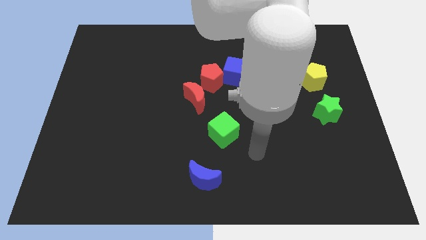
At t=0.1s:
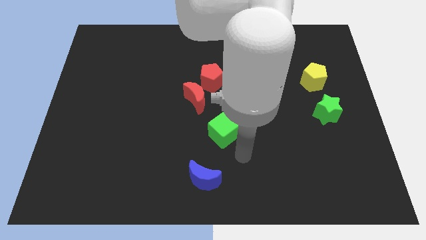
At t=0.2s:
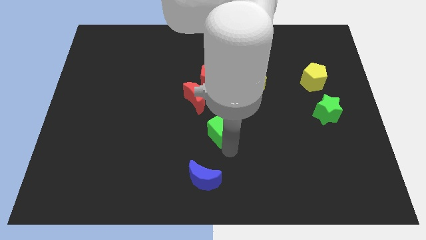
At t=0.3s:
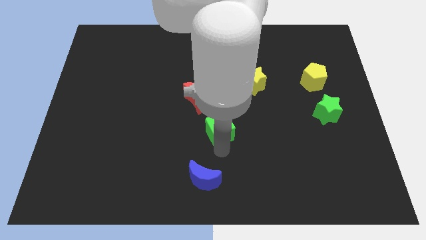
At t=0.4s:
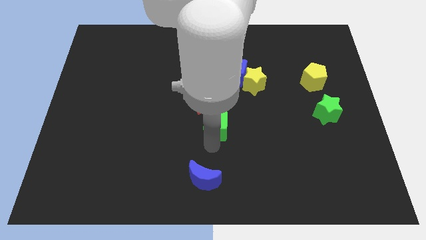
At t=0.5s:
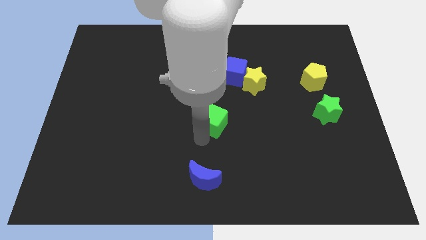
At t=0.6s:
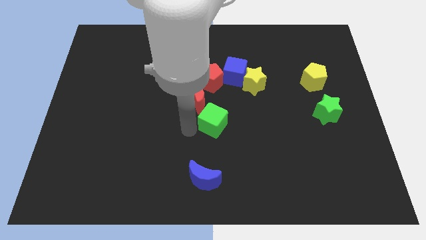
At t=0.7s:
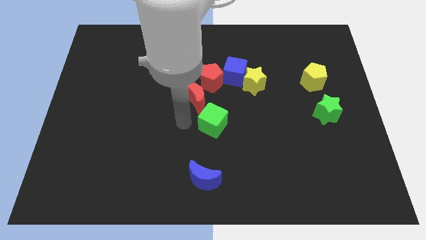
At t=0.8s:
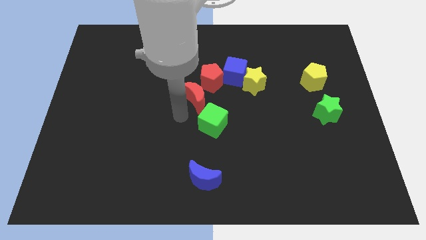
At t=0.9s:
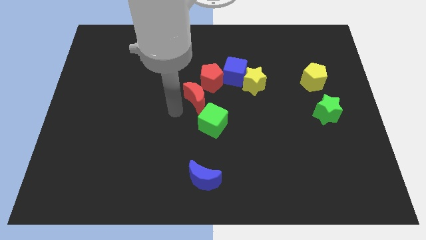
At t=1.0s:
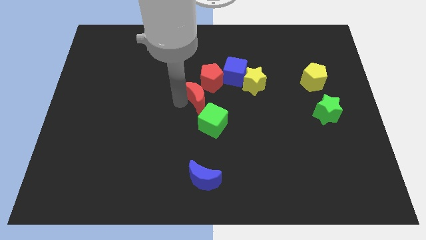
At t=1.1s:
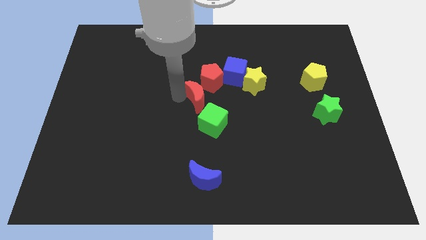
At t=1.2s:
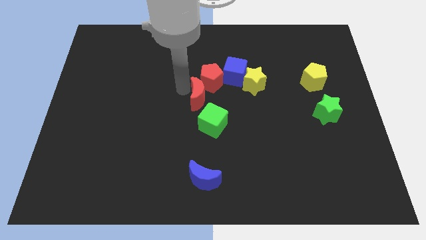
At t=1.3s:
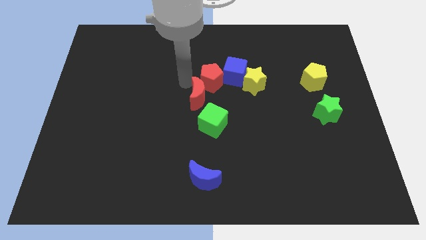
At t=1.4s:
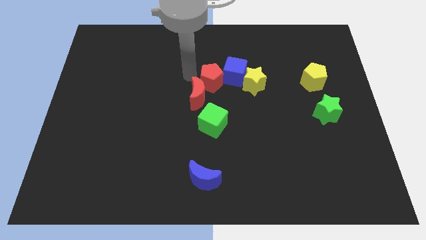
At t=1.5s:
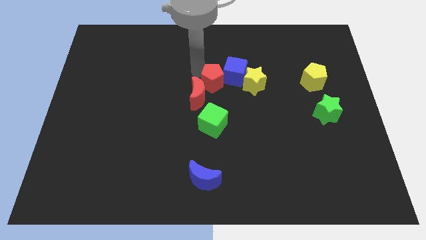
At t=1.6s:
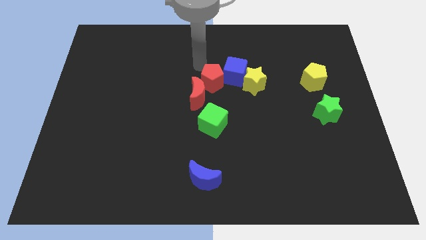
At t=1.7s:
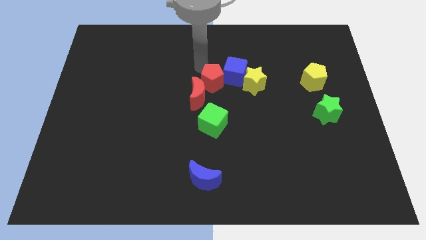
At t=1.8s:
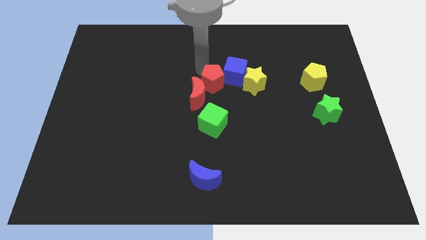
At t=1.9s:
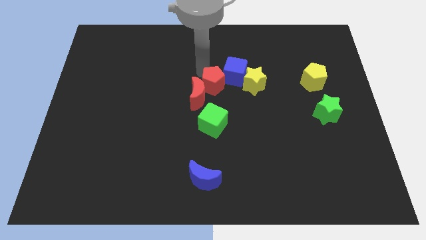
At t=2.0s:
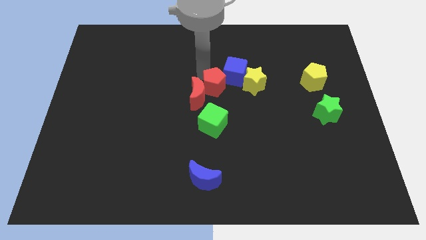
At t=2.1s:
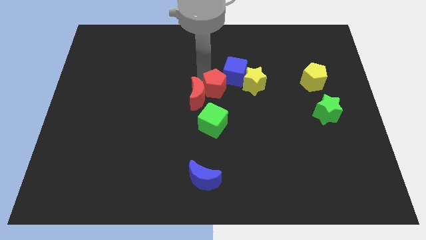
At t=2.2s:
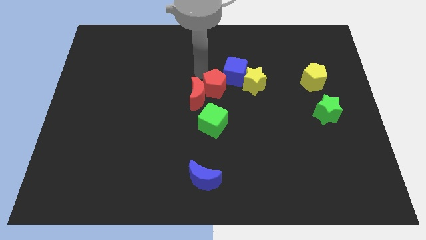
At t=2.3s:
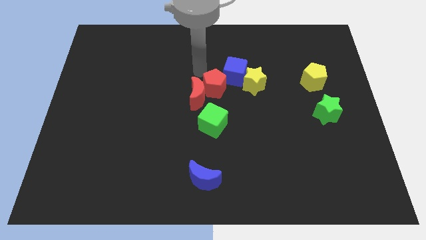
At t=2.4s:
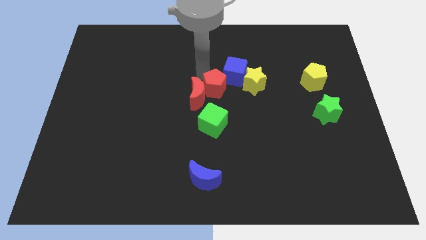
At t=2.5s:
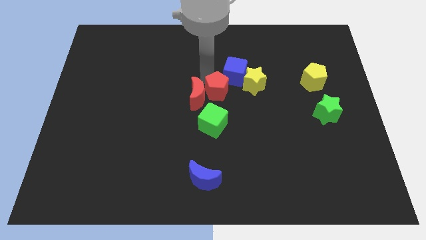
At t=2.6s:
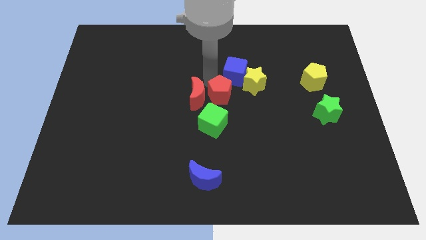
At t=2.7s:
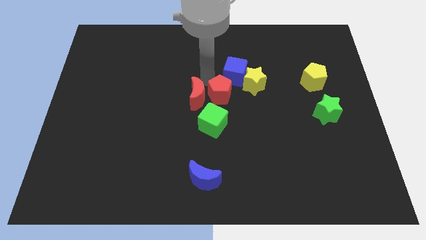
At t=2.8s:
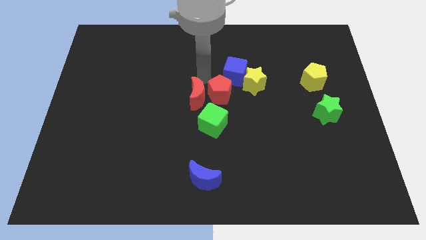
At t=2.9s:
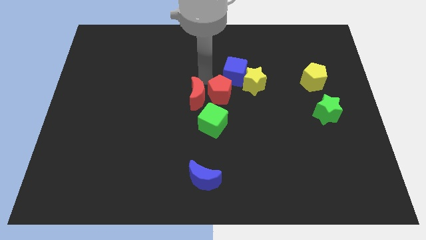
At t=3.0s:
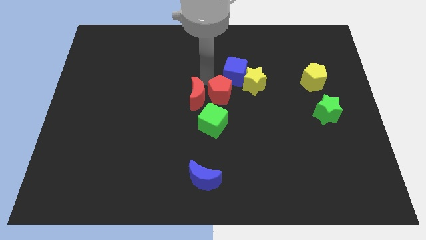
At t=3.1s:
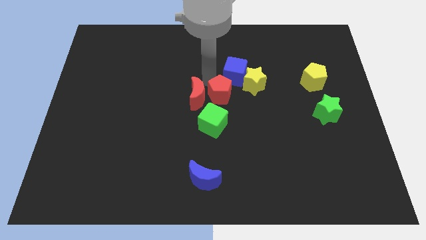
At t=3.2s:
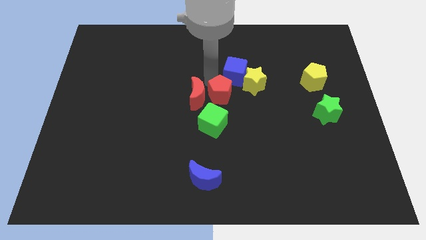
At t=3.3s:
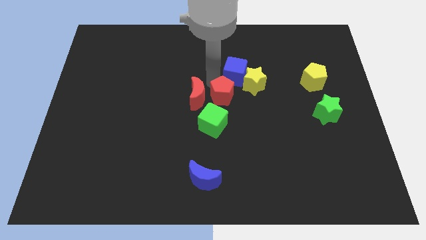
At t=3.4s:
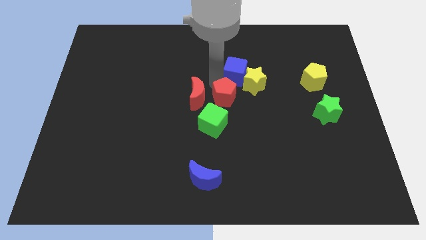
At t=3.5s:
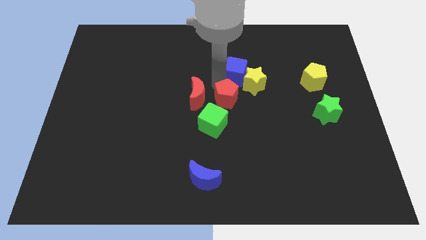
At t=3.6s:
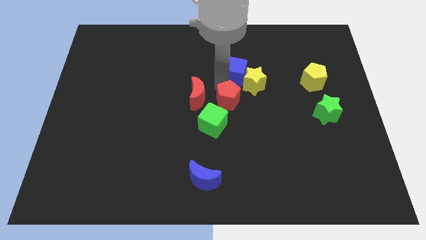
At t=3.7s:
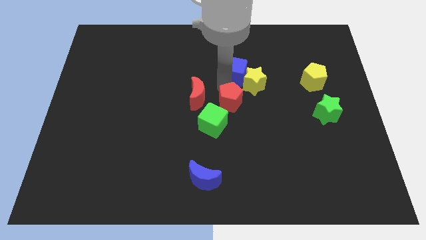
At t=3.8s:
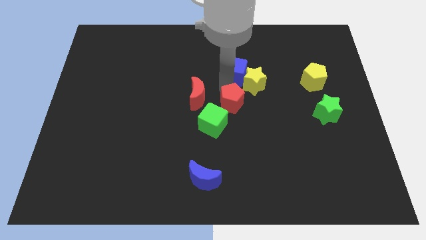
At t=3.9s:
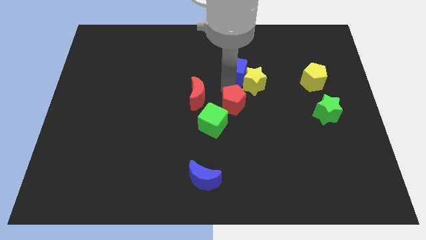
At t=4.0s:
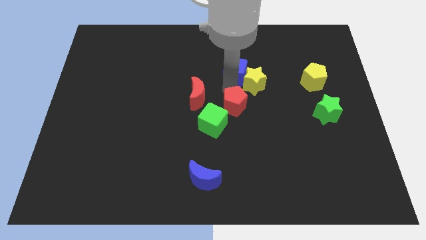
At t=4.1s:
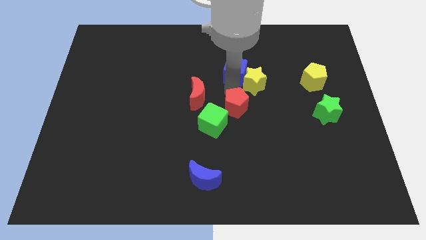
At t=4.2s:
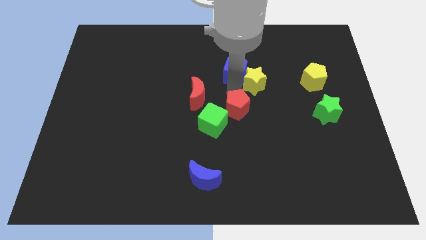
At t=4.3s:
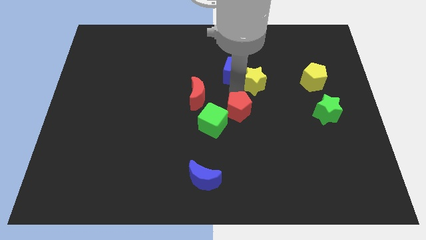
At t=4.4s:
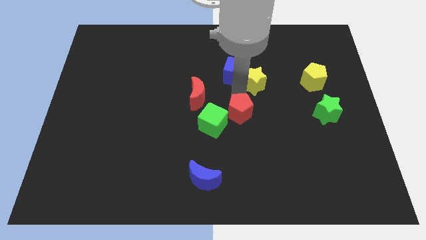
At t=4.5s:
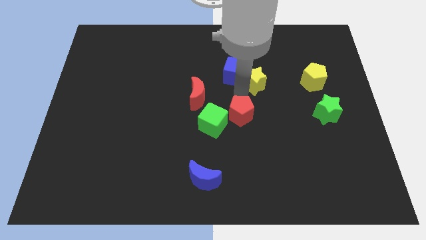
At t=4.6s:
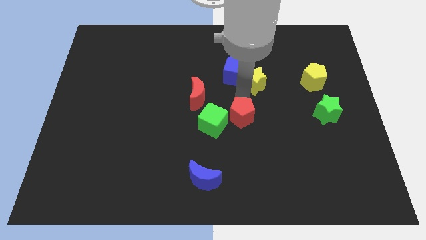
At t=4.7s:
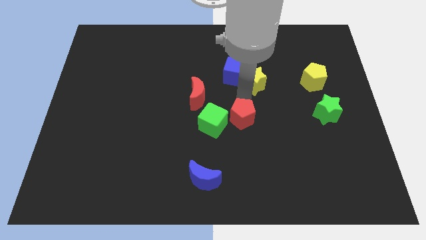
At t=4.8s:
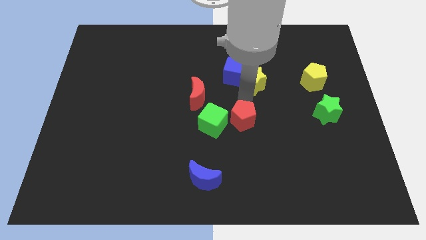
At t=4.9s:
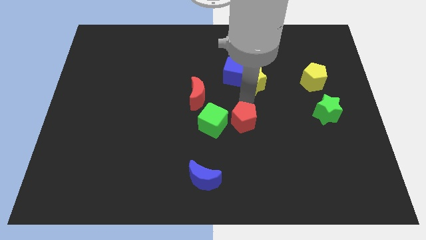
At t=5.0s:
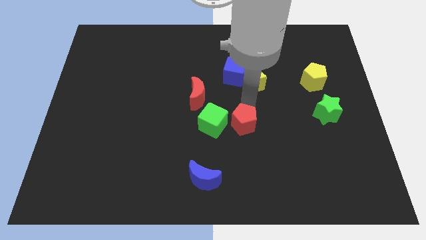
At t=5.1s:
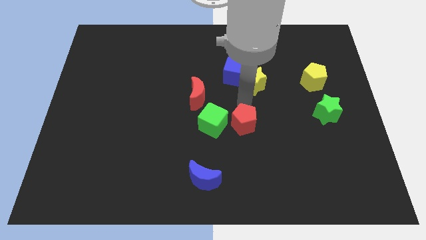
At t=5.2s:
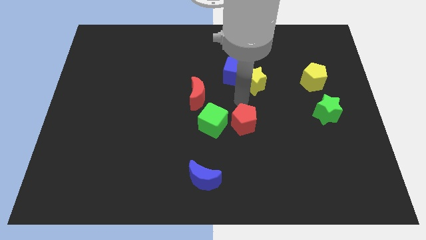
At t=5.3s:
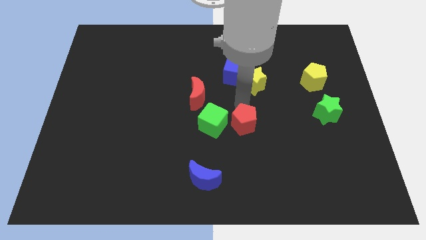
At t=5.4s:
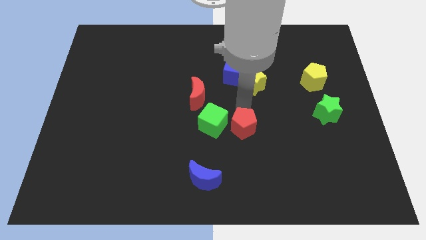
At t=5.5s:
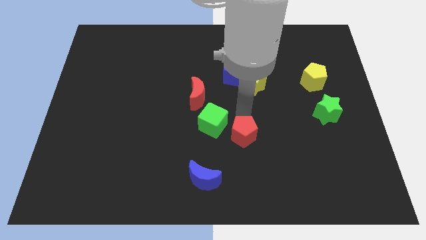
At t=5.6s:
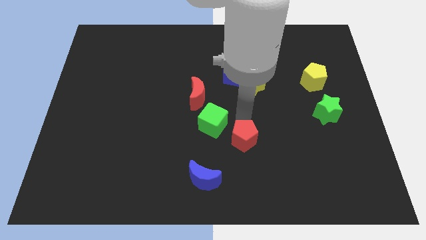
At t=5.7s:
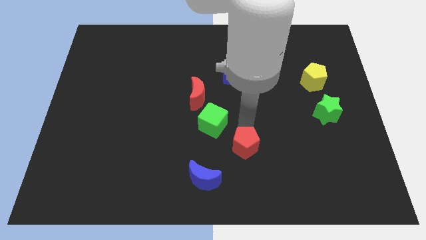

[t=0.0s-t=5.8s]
push the red pentagon to the top right of the blue moon

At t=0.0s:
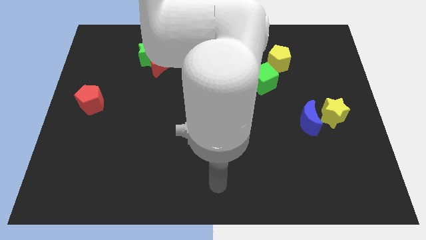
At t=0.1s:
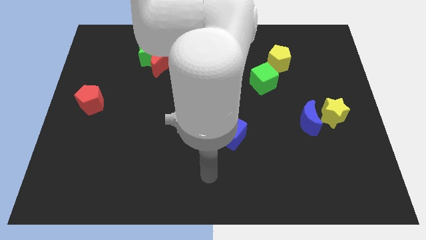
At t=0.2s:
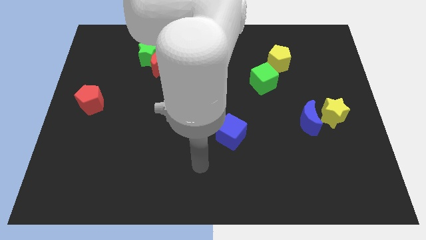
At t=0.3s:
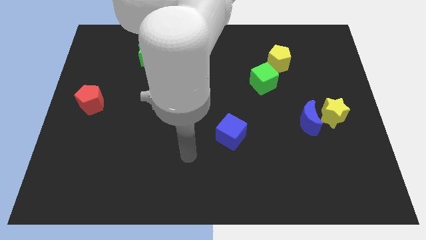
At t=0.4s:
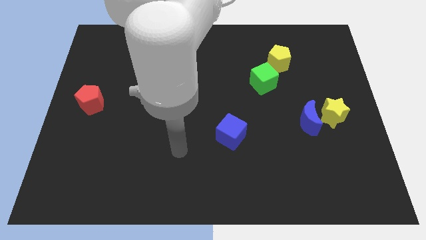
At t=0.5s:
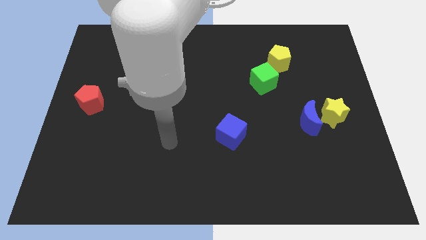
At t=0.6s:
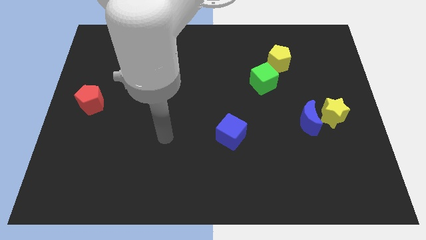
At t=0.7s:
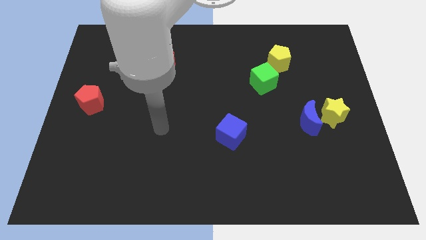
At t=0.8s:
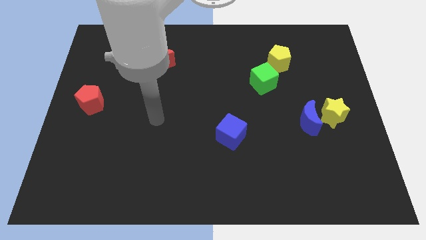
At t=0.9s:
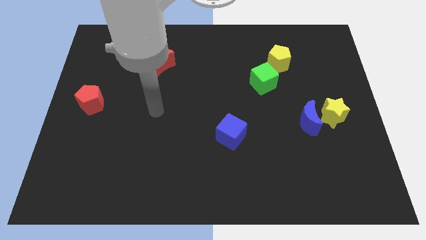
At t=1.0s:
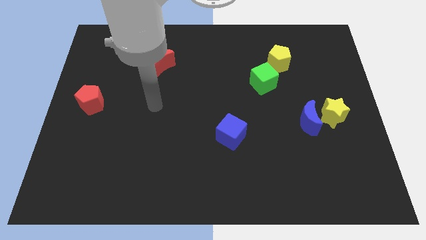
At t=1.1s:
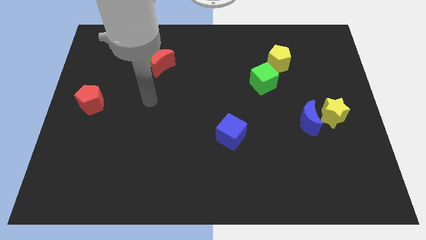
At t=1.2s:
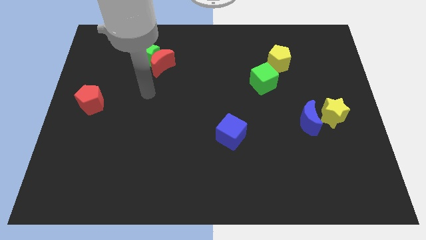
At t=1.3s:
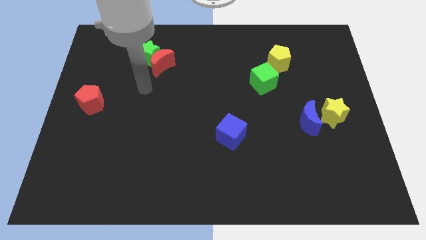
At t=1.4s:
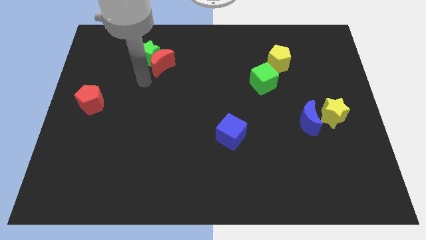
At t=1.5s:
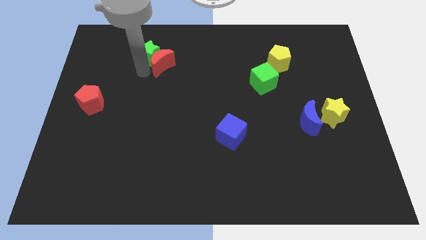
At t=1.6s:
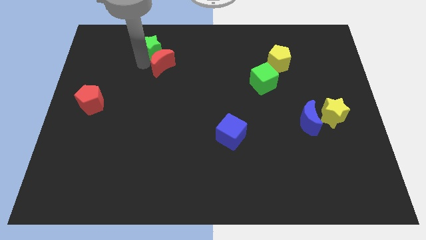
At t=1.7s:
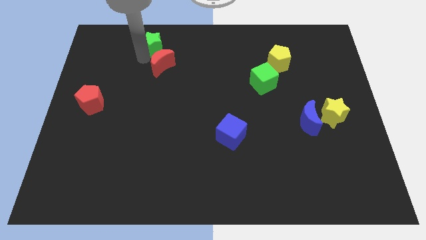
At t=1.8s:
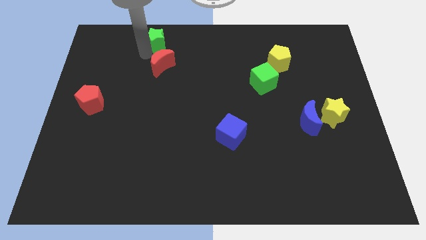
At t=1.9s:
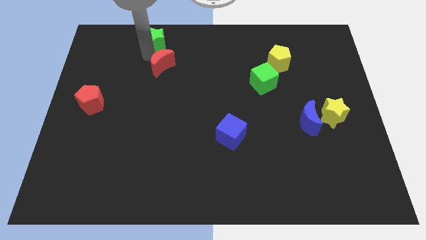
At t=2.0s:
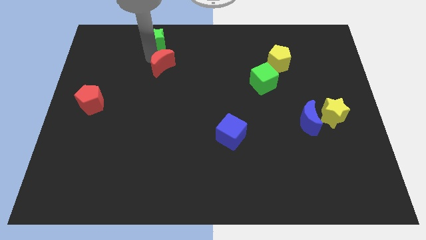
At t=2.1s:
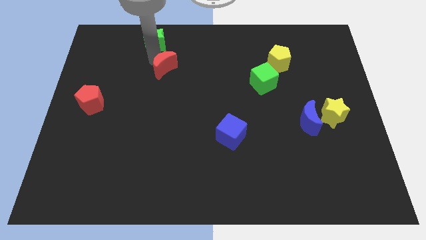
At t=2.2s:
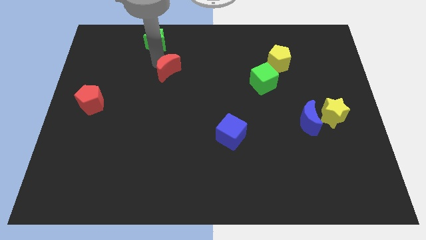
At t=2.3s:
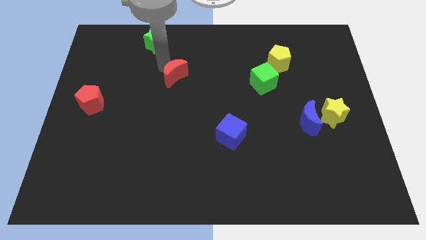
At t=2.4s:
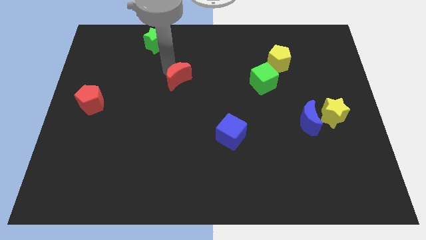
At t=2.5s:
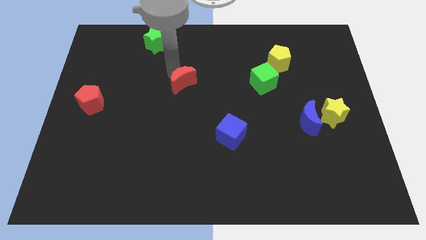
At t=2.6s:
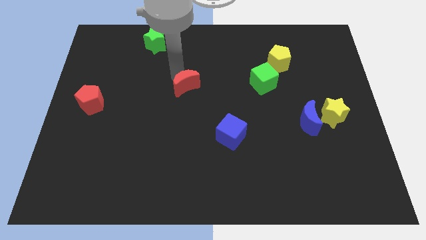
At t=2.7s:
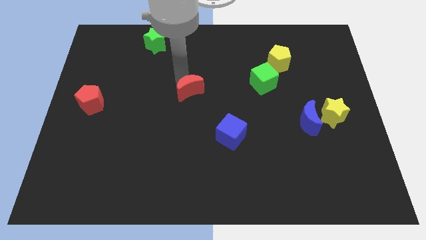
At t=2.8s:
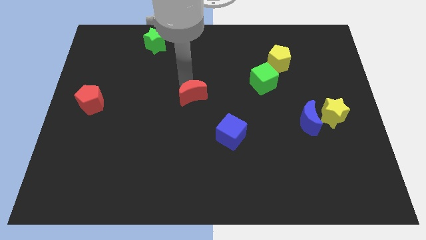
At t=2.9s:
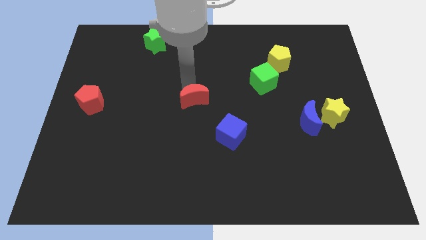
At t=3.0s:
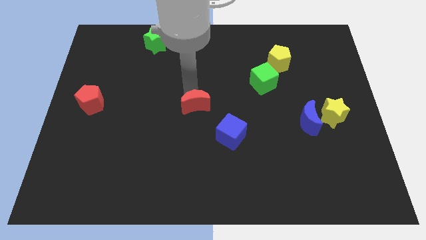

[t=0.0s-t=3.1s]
move the red moon to the top left of the blue cube
